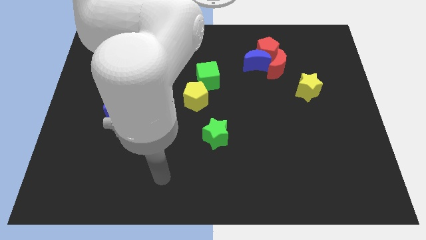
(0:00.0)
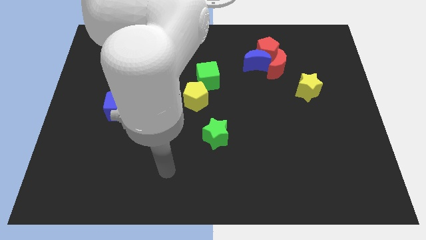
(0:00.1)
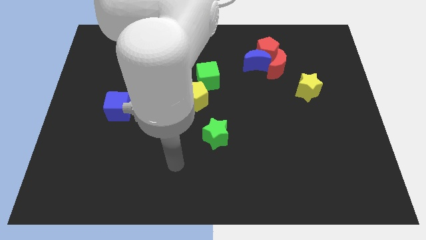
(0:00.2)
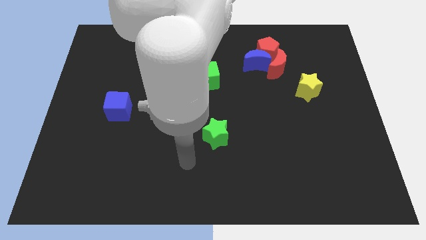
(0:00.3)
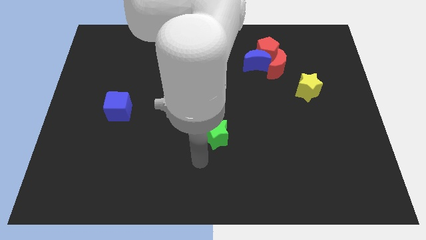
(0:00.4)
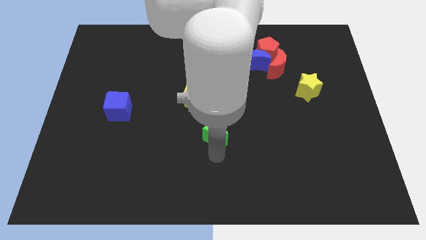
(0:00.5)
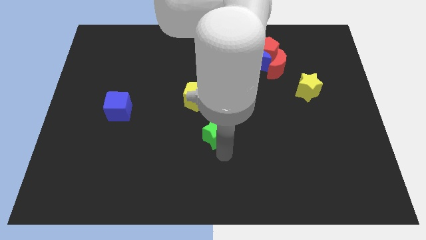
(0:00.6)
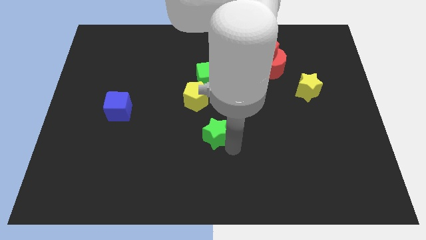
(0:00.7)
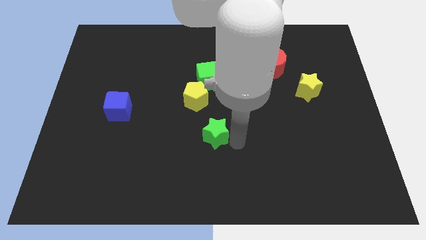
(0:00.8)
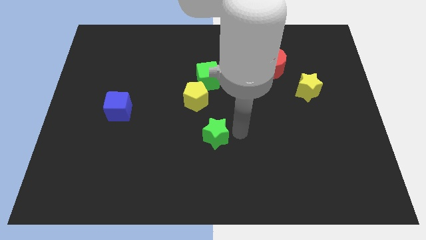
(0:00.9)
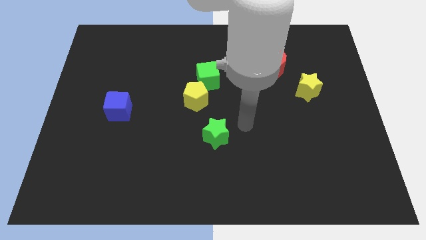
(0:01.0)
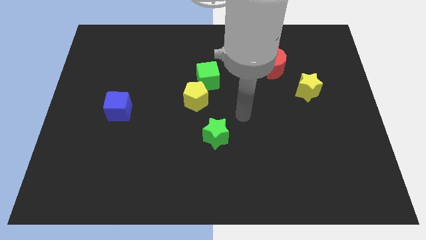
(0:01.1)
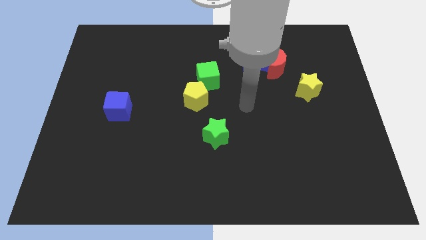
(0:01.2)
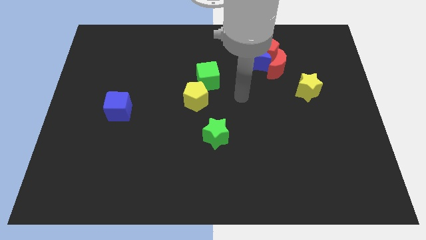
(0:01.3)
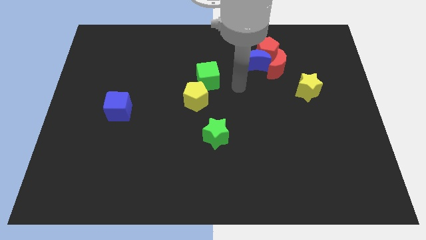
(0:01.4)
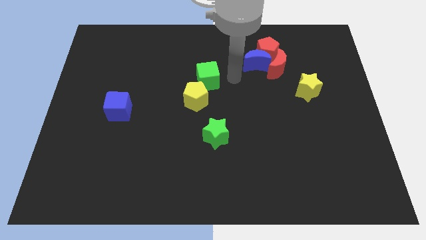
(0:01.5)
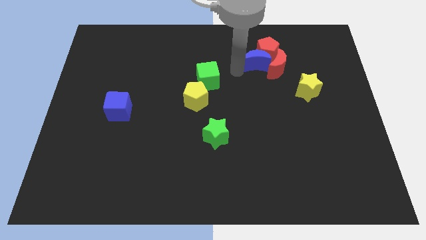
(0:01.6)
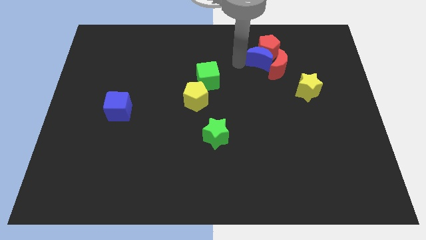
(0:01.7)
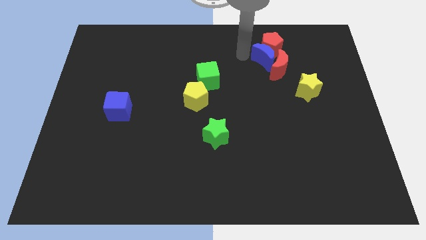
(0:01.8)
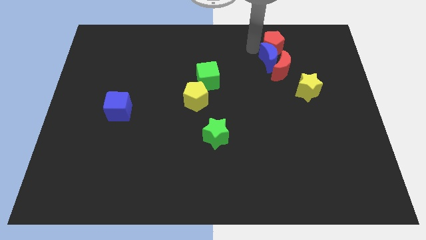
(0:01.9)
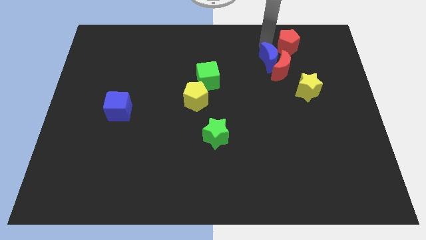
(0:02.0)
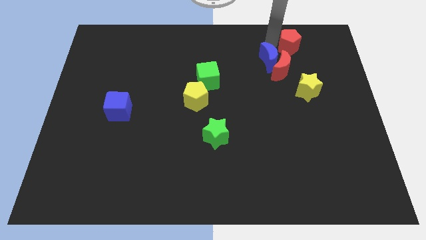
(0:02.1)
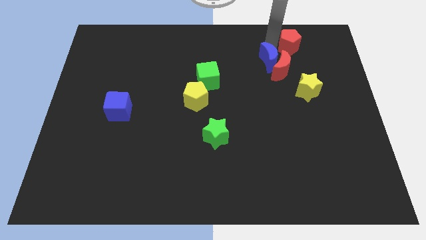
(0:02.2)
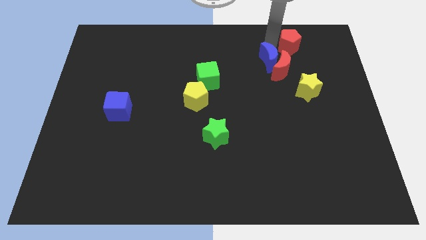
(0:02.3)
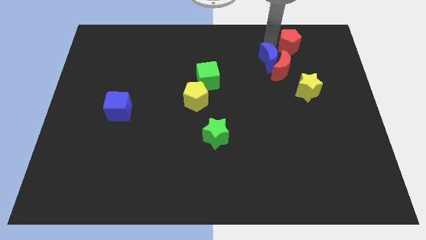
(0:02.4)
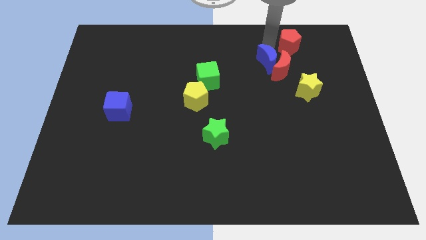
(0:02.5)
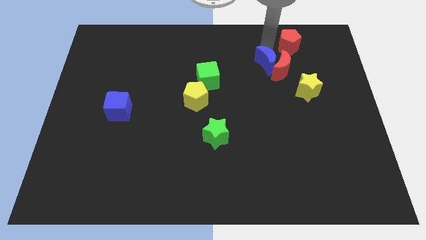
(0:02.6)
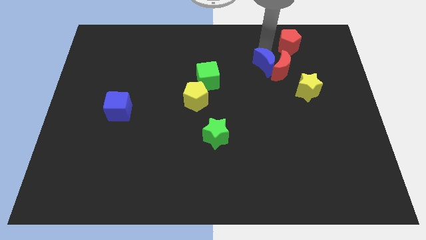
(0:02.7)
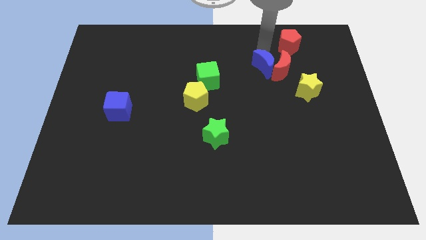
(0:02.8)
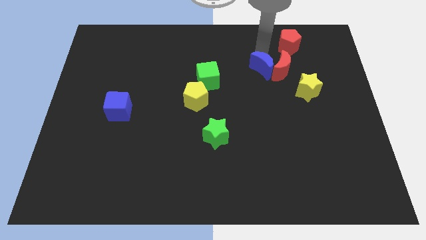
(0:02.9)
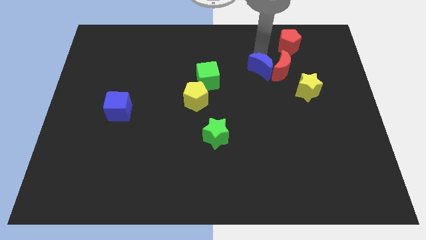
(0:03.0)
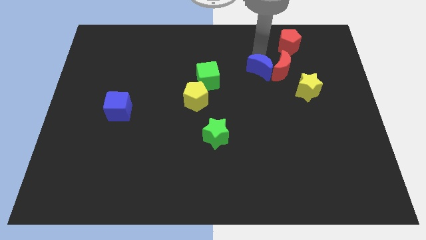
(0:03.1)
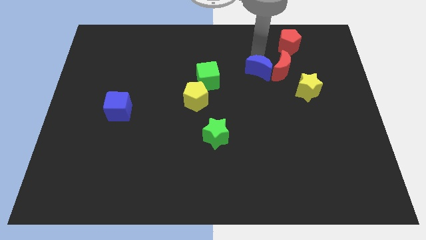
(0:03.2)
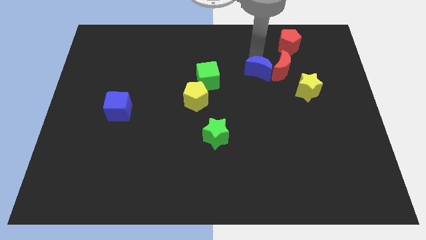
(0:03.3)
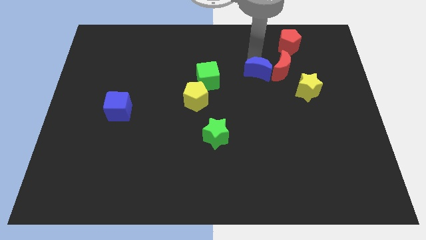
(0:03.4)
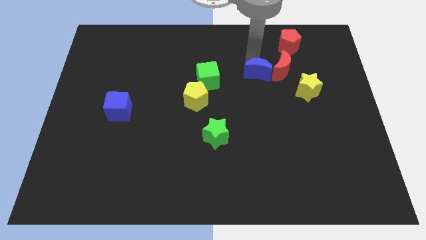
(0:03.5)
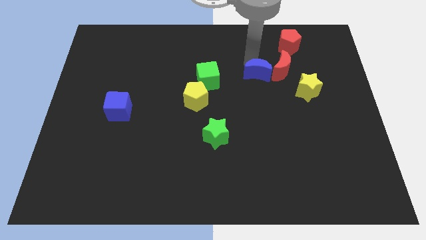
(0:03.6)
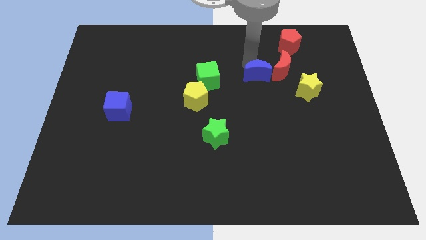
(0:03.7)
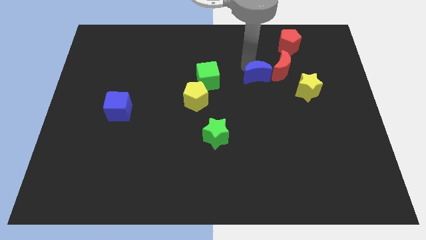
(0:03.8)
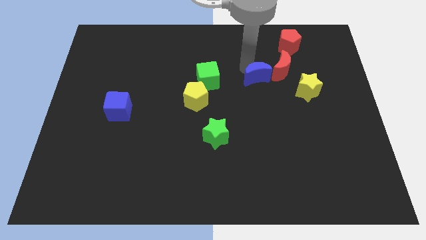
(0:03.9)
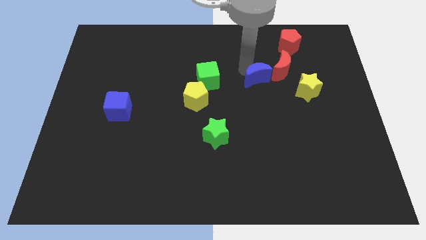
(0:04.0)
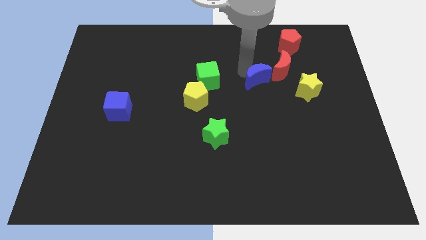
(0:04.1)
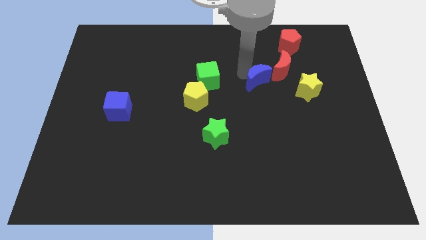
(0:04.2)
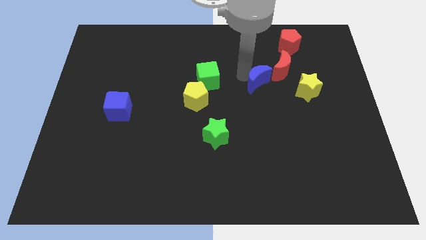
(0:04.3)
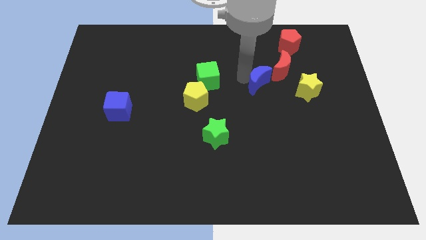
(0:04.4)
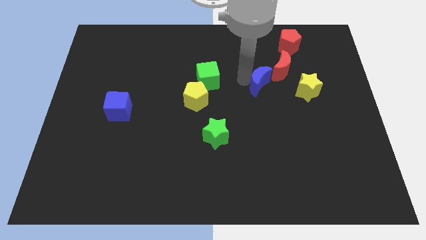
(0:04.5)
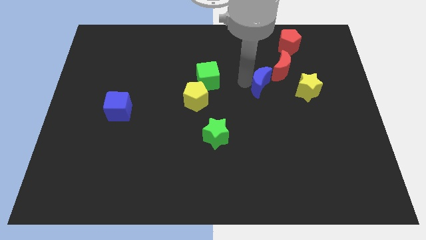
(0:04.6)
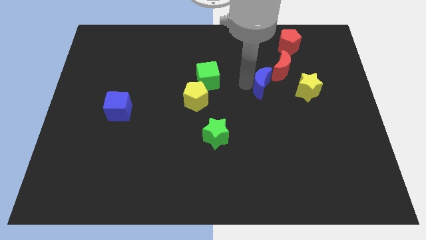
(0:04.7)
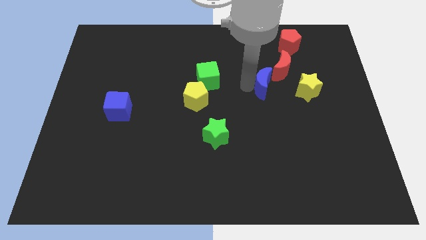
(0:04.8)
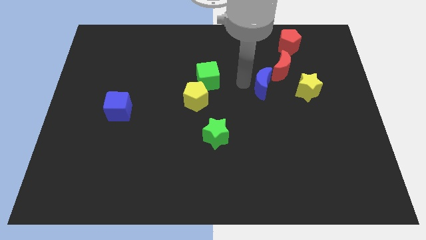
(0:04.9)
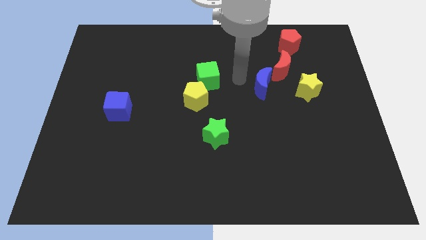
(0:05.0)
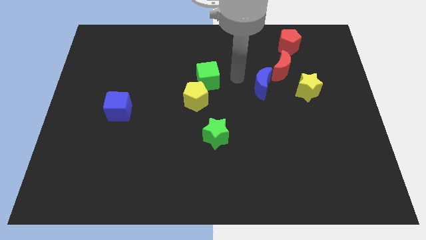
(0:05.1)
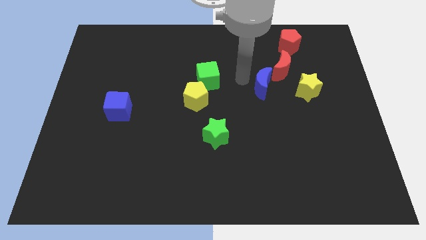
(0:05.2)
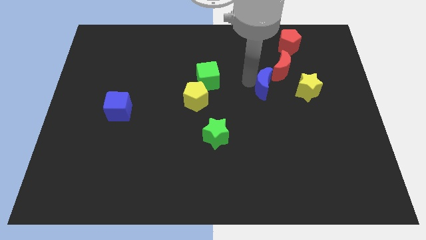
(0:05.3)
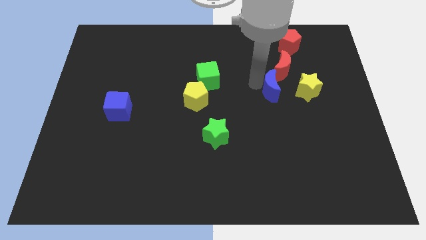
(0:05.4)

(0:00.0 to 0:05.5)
slide the blue moon diagonally down and right a little bit

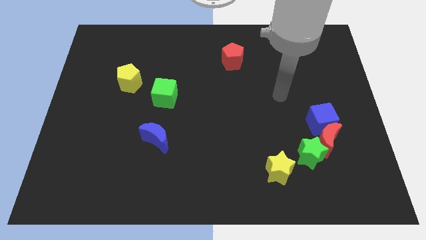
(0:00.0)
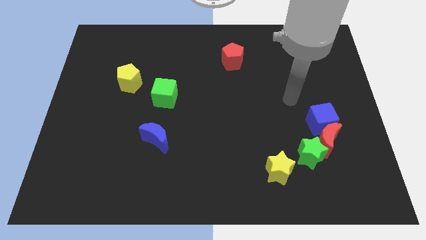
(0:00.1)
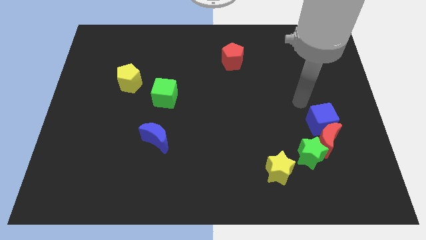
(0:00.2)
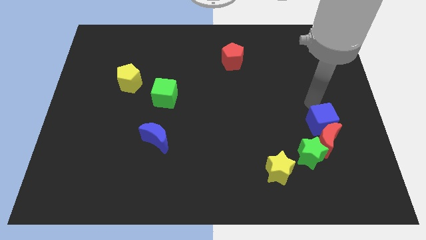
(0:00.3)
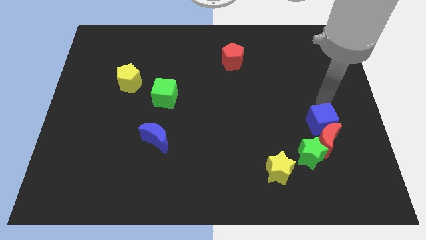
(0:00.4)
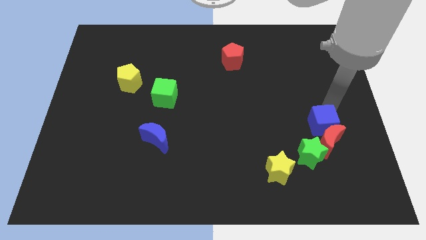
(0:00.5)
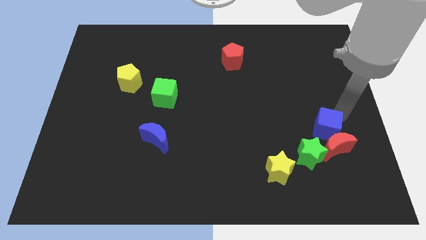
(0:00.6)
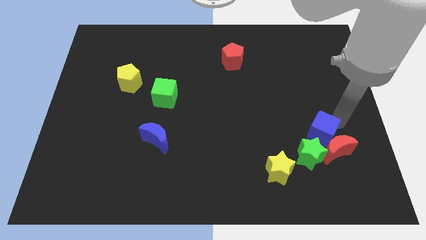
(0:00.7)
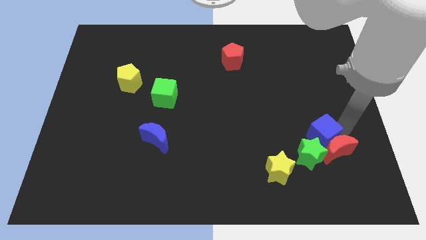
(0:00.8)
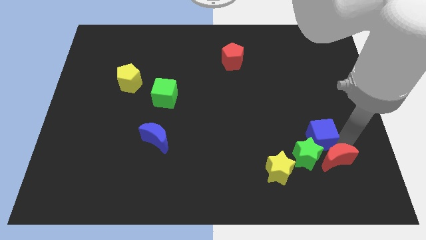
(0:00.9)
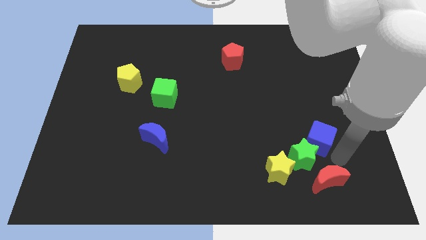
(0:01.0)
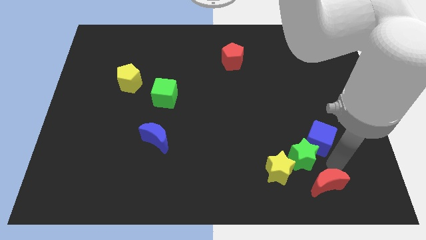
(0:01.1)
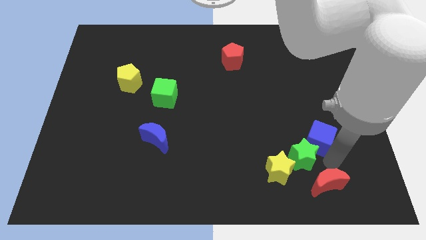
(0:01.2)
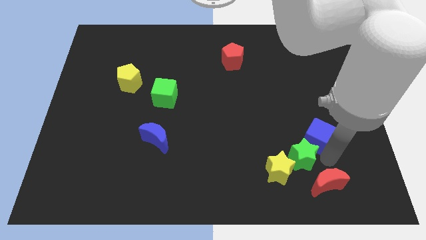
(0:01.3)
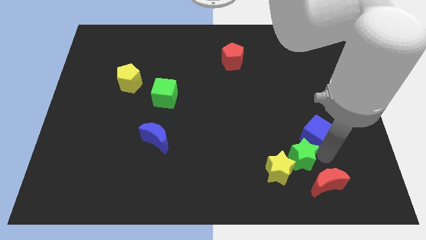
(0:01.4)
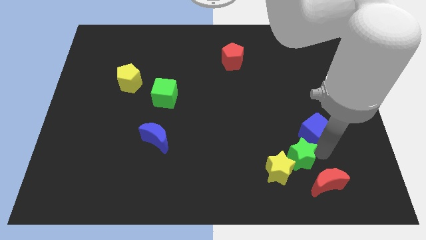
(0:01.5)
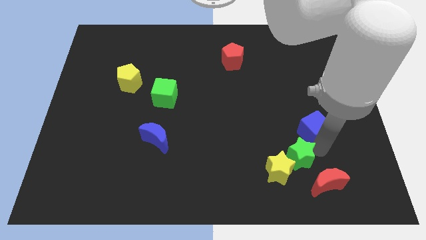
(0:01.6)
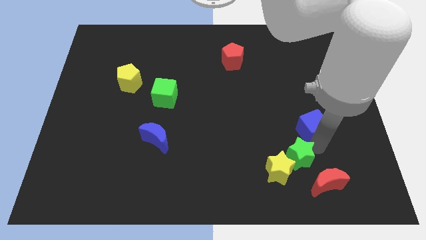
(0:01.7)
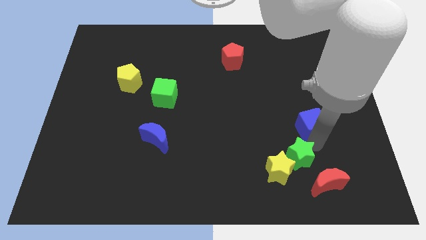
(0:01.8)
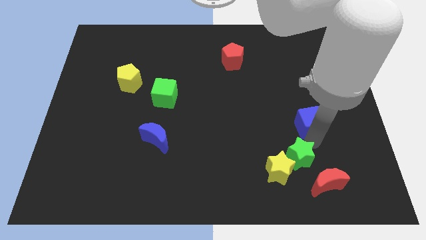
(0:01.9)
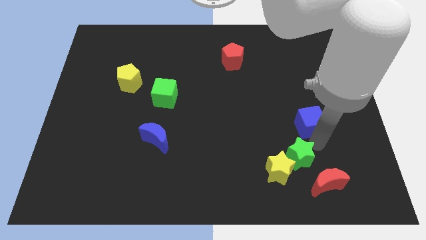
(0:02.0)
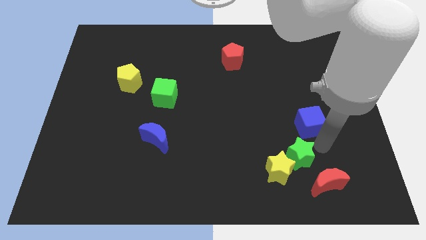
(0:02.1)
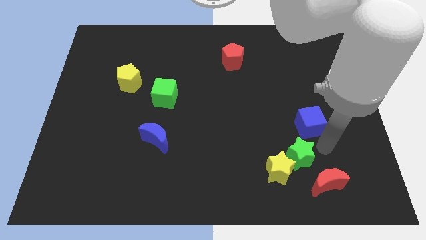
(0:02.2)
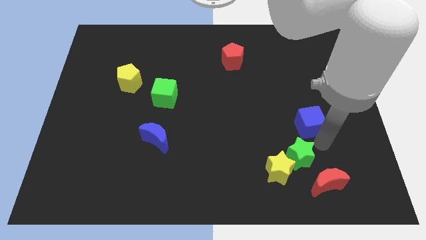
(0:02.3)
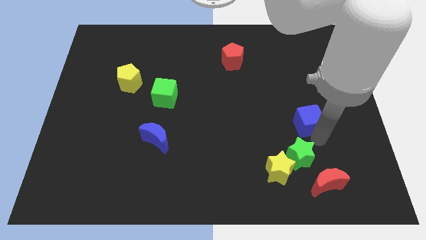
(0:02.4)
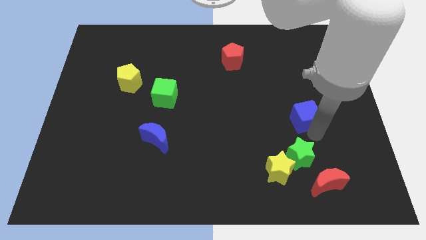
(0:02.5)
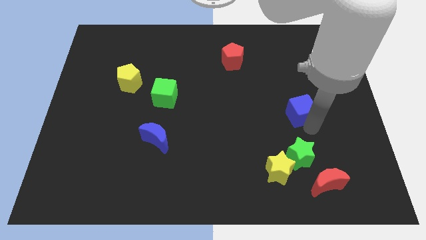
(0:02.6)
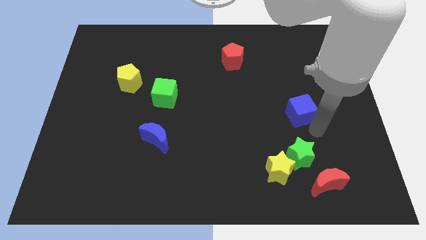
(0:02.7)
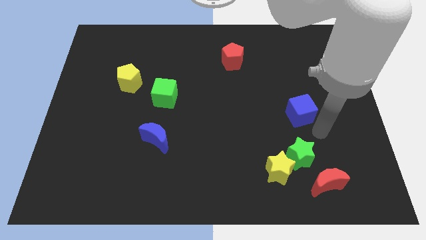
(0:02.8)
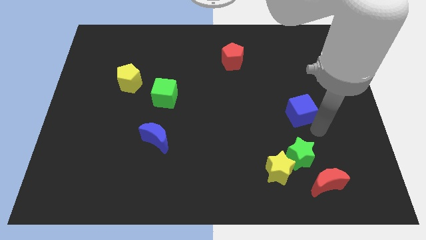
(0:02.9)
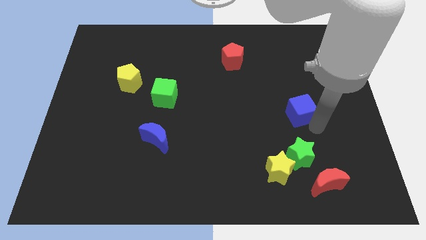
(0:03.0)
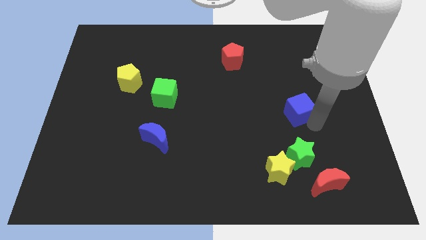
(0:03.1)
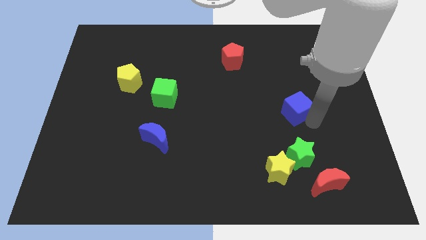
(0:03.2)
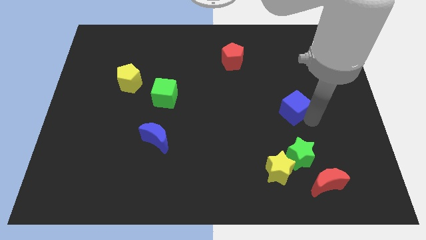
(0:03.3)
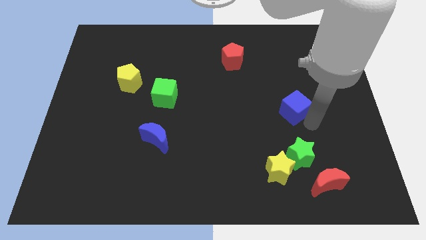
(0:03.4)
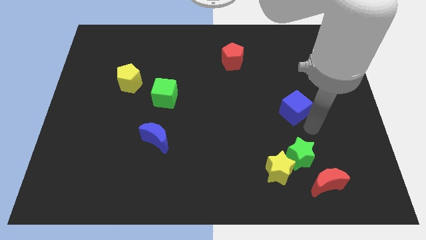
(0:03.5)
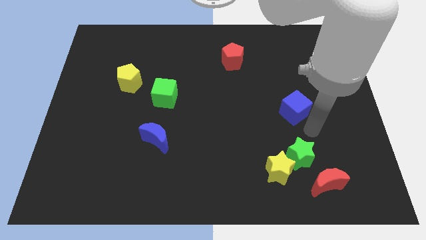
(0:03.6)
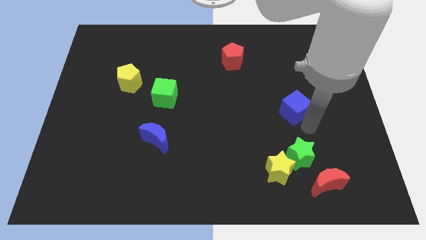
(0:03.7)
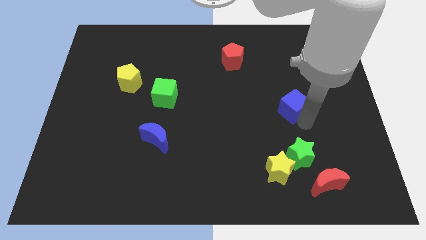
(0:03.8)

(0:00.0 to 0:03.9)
push the blue cube diagonally upwards and to the left a bit
